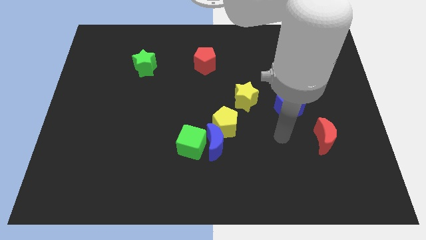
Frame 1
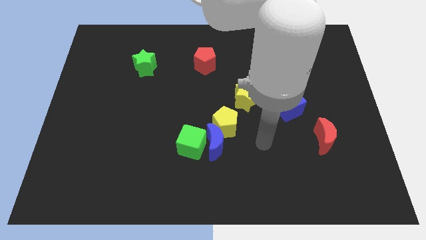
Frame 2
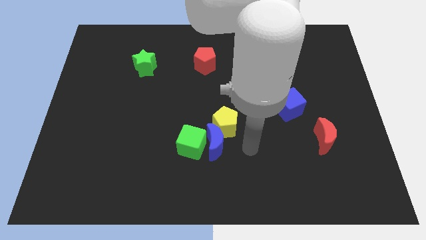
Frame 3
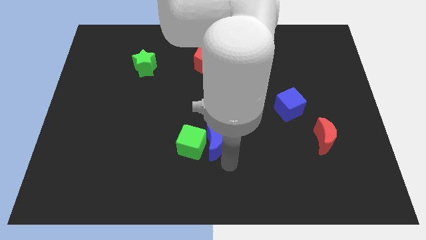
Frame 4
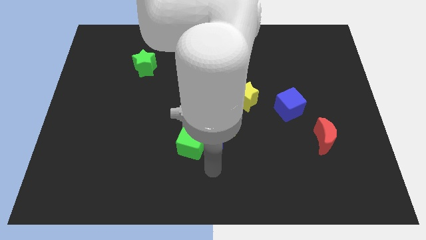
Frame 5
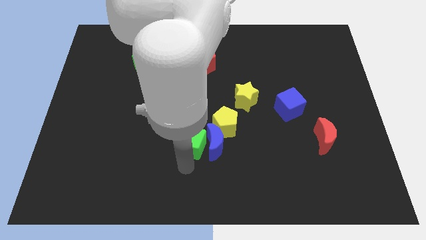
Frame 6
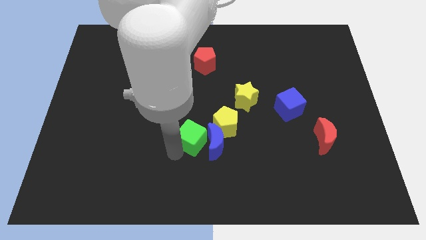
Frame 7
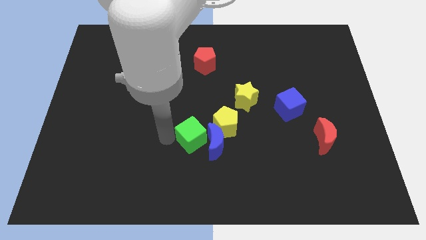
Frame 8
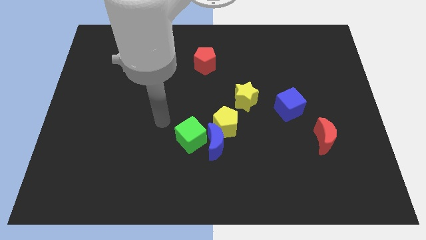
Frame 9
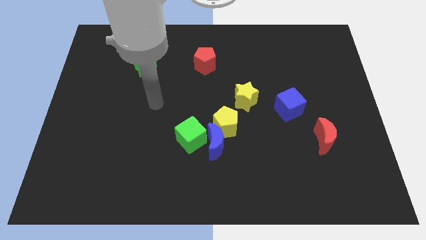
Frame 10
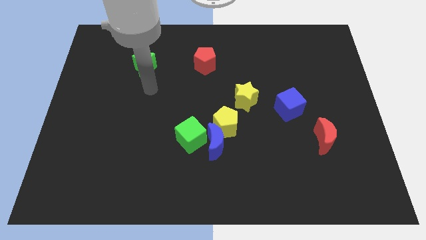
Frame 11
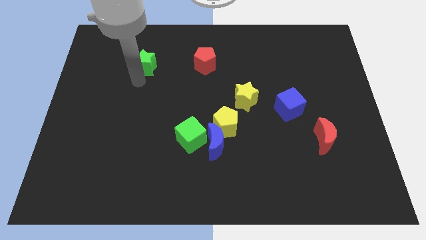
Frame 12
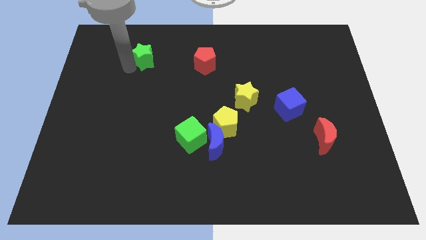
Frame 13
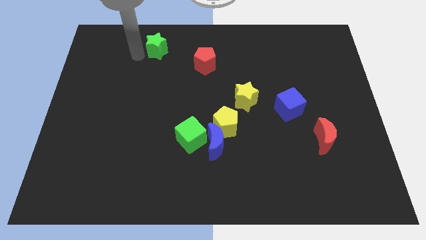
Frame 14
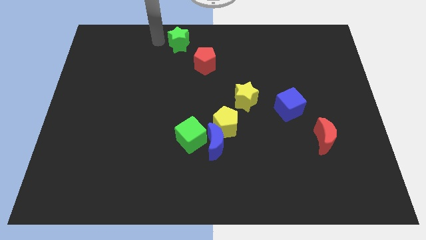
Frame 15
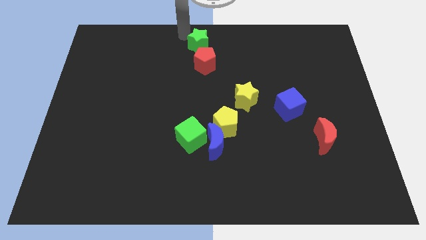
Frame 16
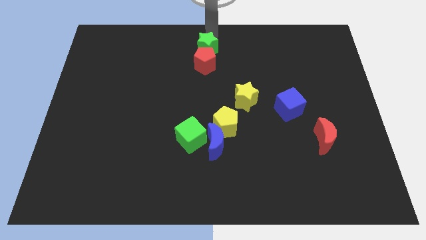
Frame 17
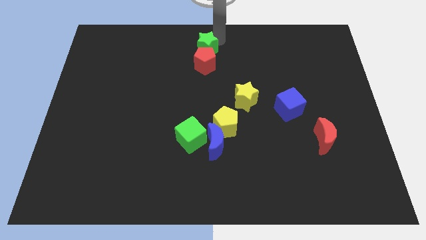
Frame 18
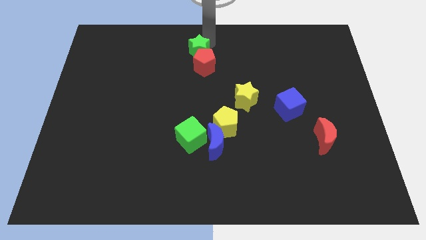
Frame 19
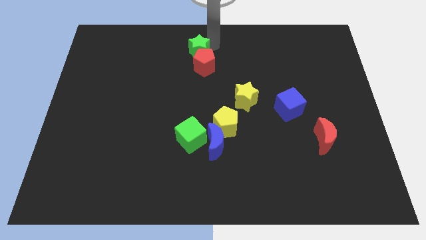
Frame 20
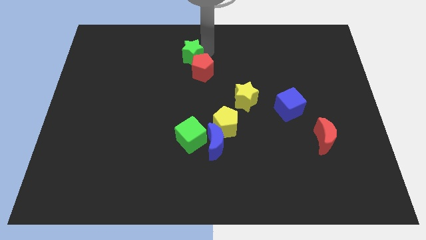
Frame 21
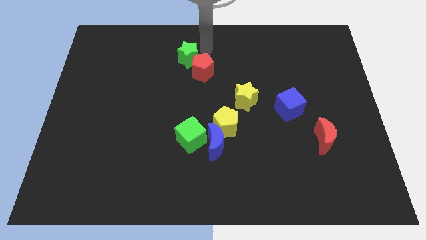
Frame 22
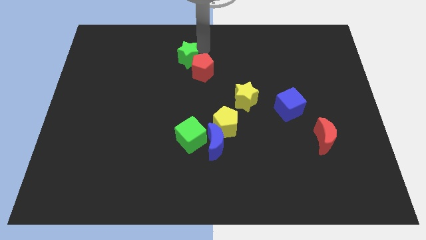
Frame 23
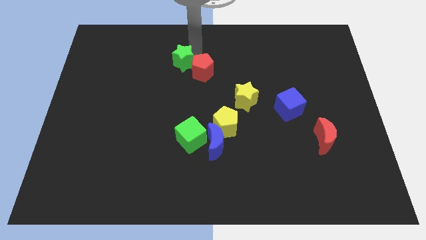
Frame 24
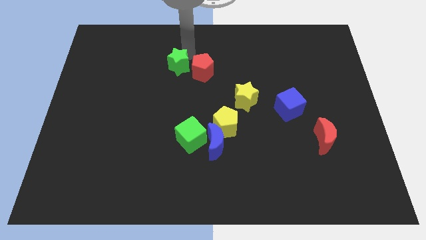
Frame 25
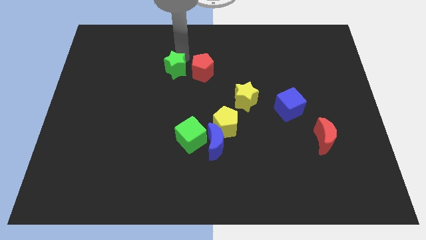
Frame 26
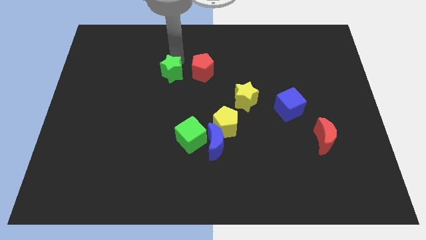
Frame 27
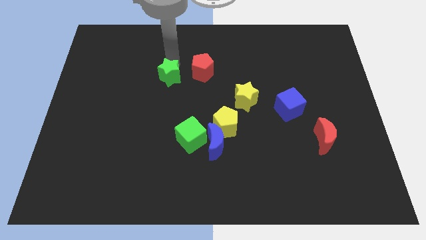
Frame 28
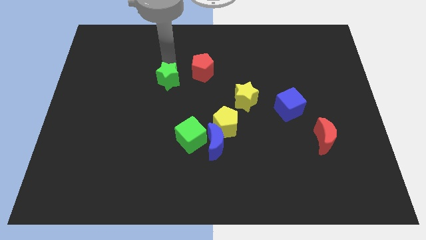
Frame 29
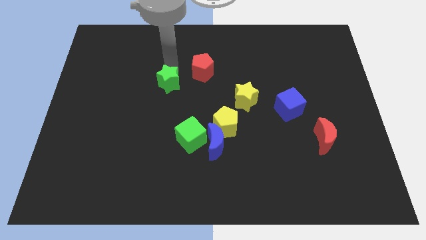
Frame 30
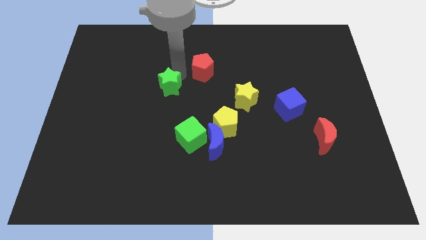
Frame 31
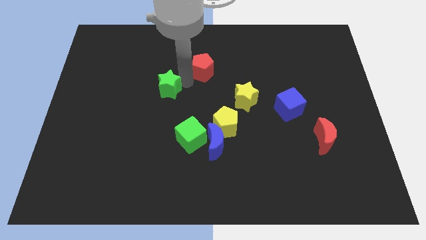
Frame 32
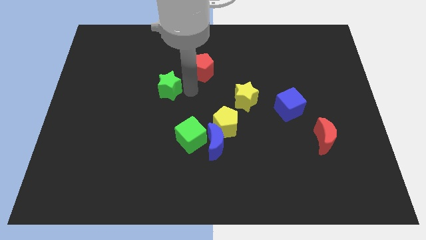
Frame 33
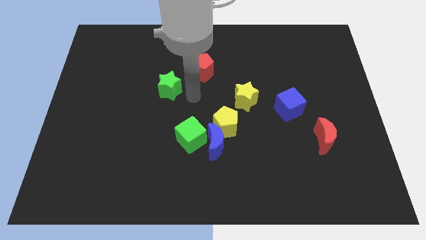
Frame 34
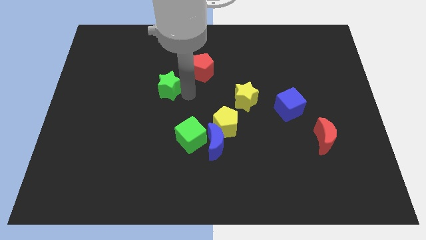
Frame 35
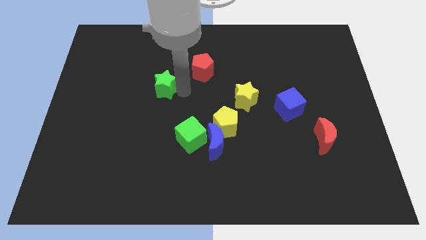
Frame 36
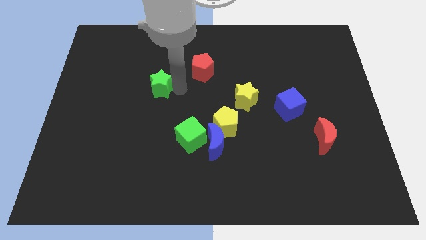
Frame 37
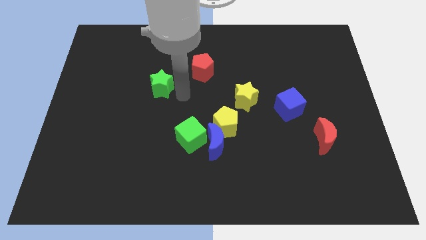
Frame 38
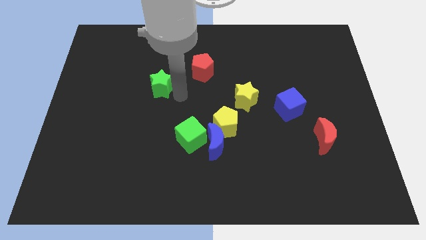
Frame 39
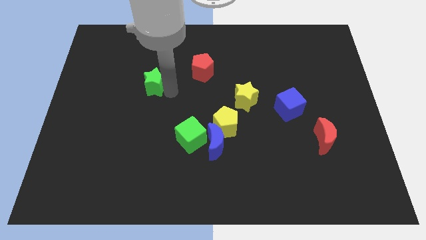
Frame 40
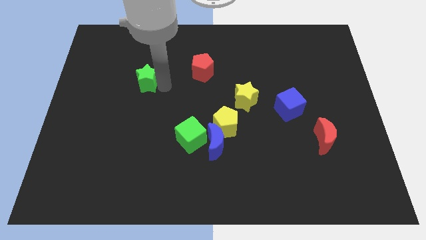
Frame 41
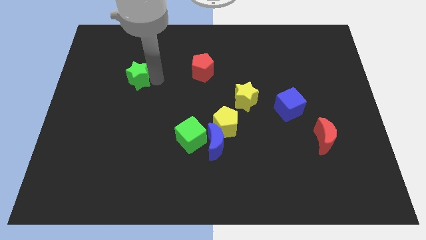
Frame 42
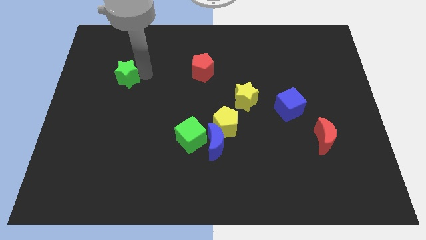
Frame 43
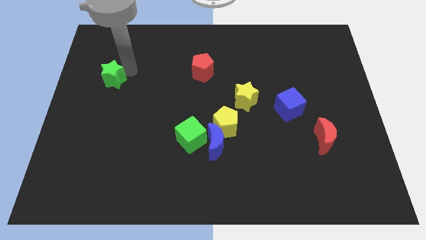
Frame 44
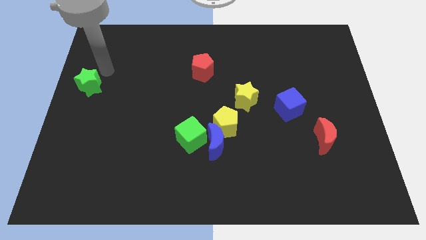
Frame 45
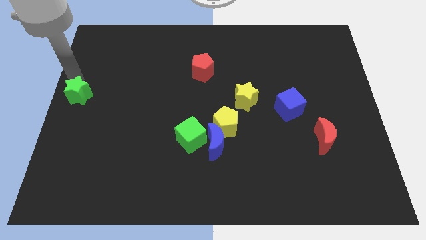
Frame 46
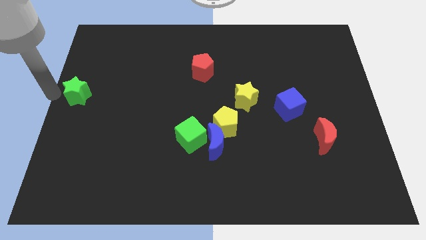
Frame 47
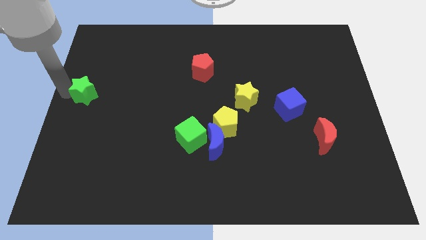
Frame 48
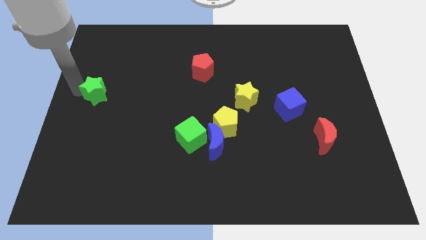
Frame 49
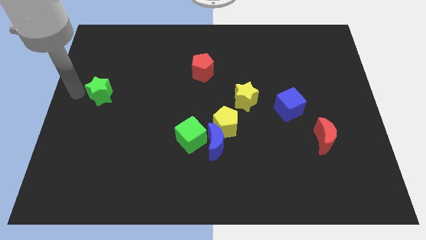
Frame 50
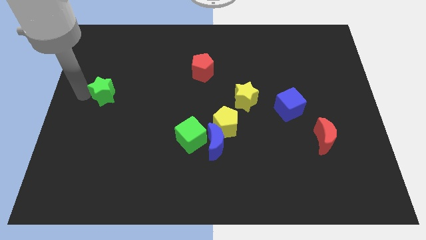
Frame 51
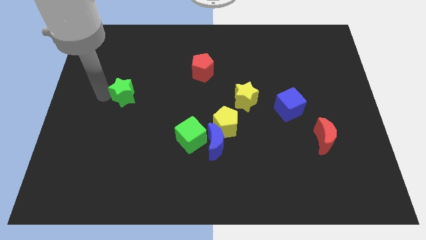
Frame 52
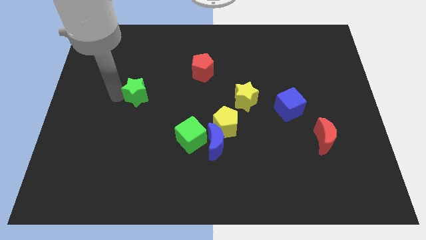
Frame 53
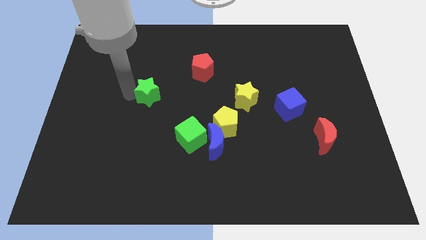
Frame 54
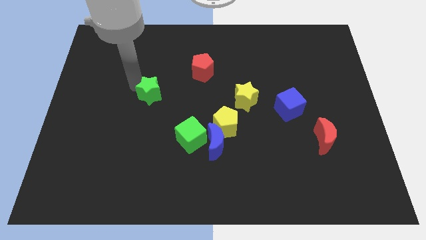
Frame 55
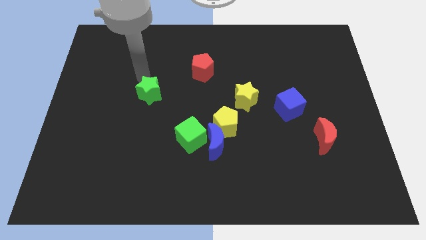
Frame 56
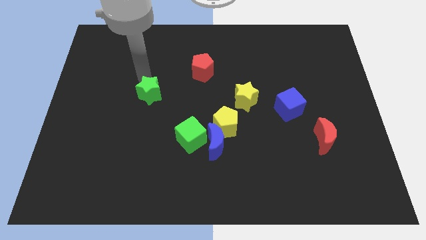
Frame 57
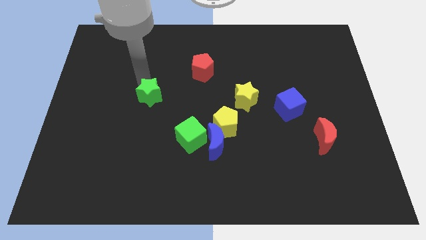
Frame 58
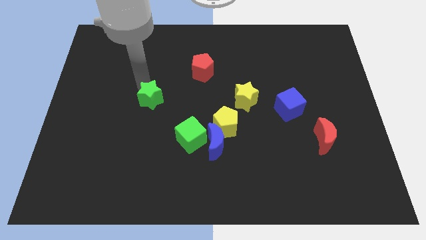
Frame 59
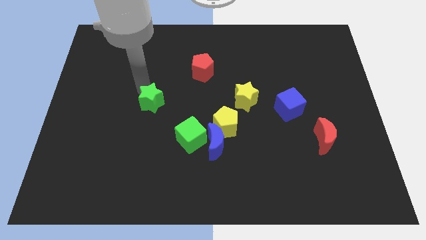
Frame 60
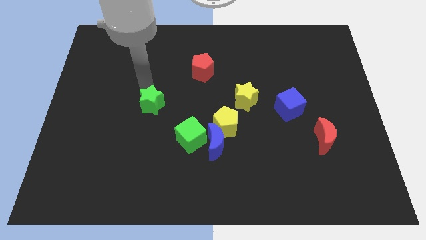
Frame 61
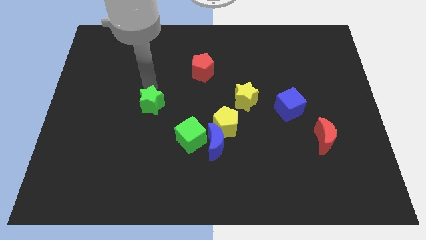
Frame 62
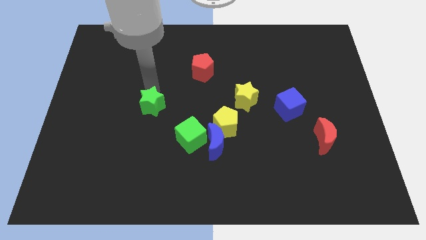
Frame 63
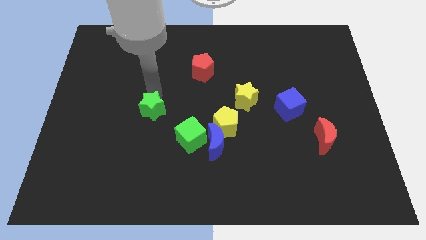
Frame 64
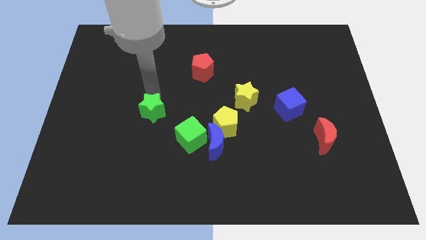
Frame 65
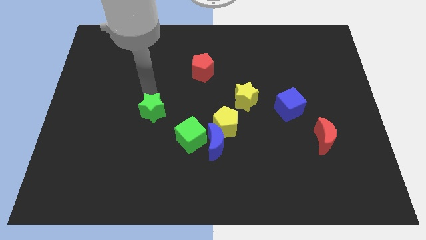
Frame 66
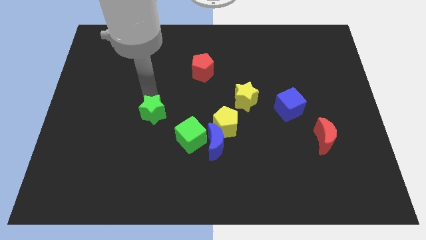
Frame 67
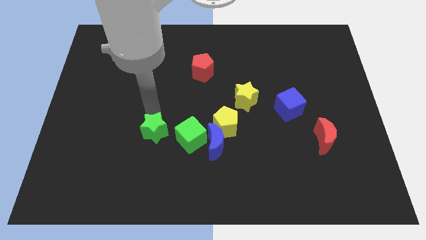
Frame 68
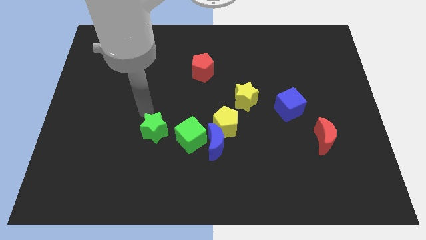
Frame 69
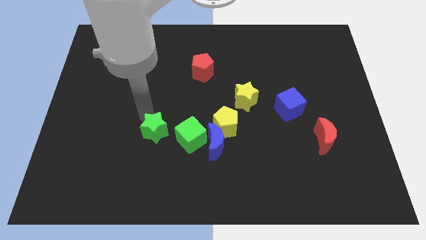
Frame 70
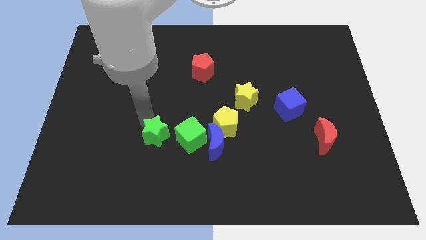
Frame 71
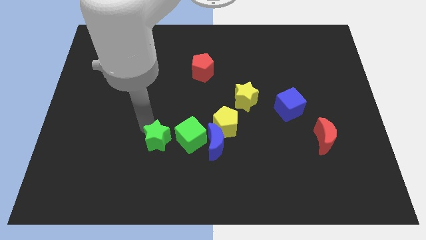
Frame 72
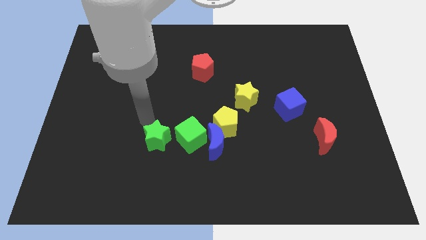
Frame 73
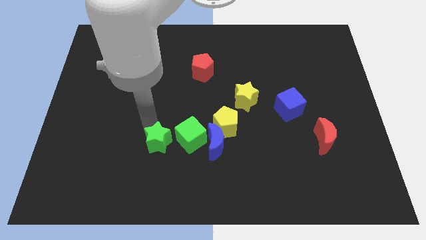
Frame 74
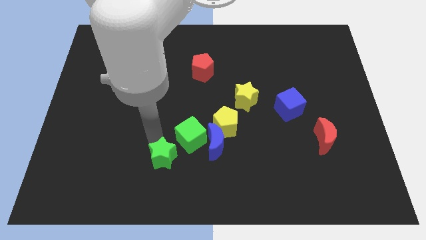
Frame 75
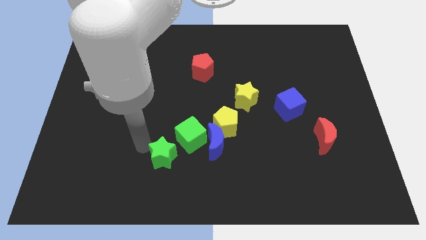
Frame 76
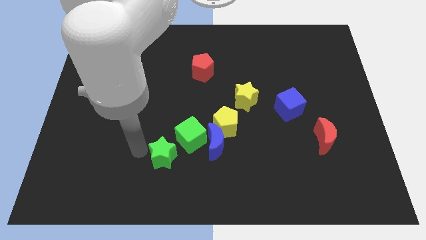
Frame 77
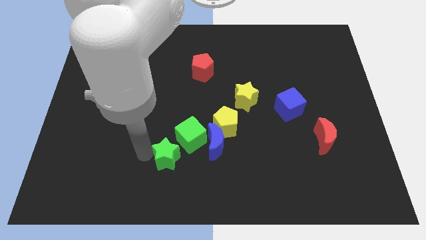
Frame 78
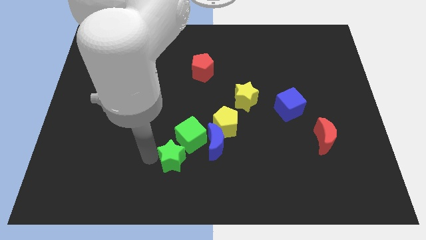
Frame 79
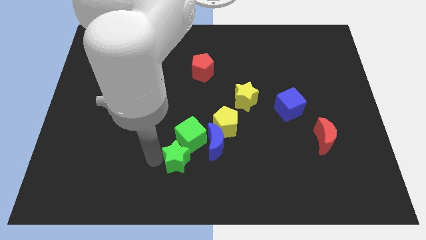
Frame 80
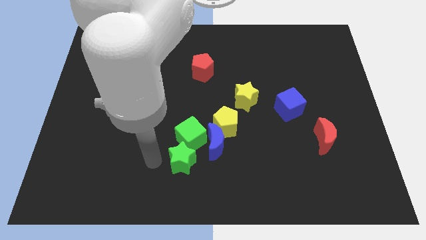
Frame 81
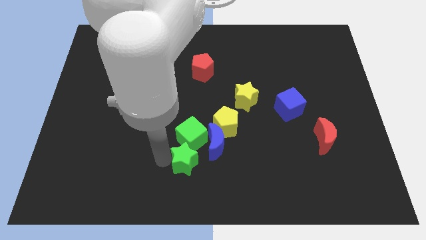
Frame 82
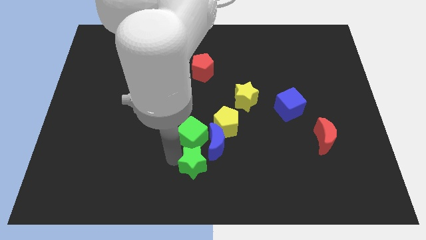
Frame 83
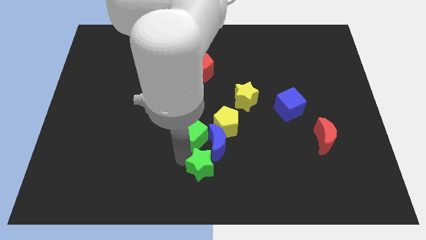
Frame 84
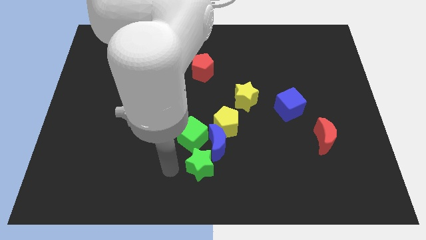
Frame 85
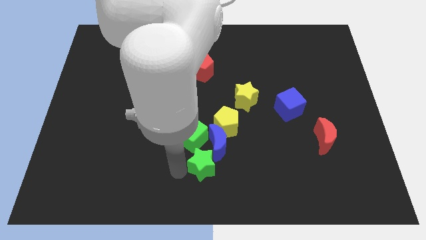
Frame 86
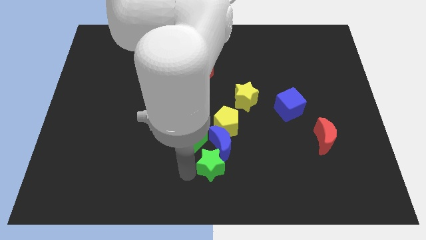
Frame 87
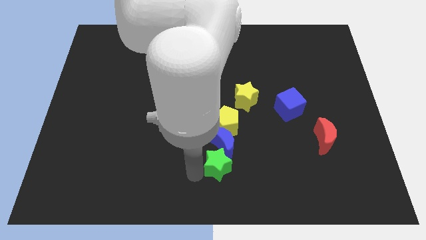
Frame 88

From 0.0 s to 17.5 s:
slide the green star to the bottom right of the blue moon
